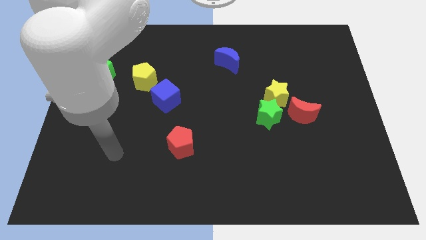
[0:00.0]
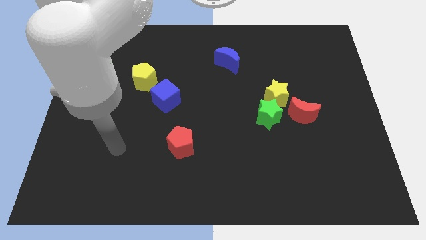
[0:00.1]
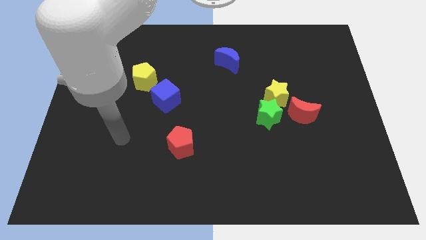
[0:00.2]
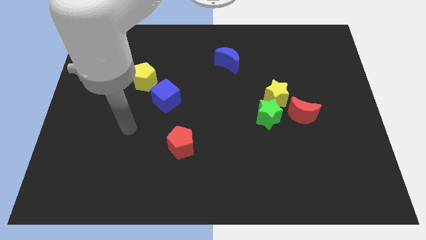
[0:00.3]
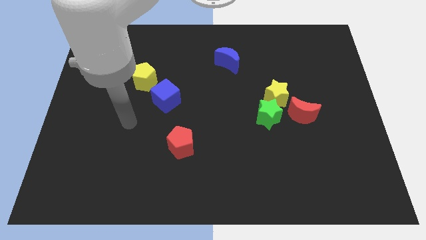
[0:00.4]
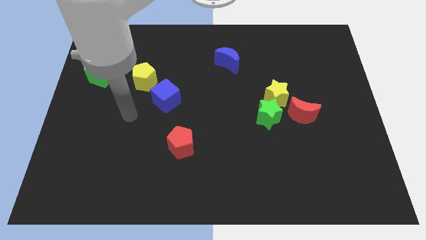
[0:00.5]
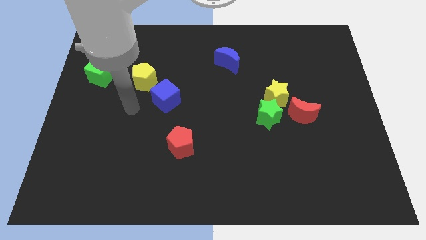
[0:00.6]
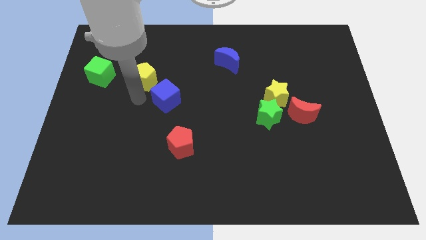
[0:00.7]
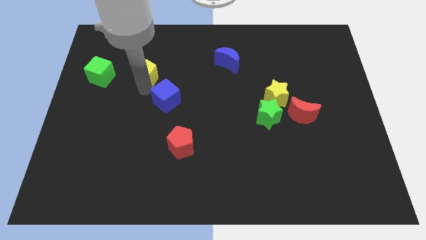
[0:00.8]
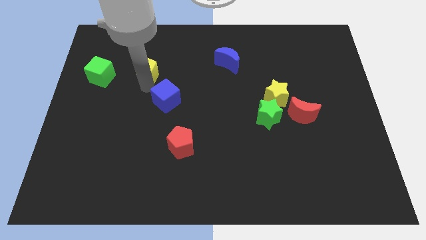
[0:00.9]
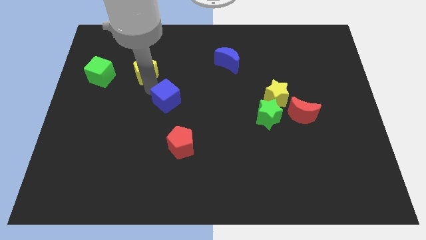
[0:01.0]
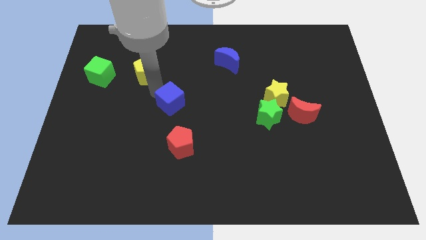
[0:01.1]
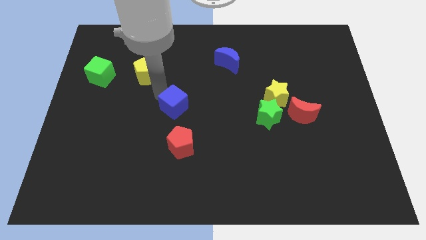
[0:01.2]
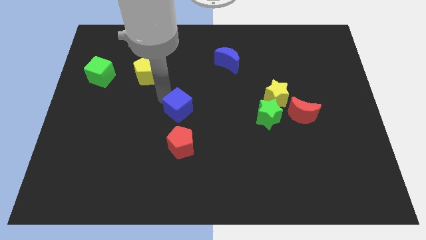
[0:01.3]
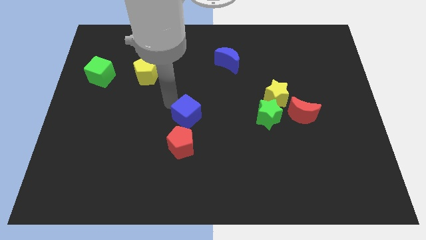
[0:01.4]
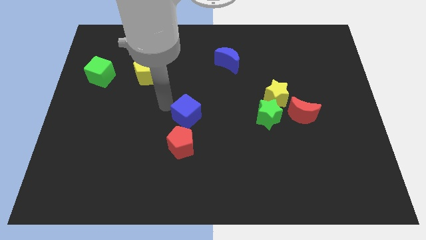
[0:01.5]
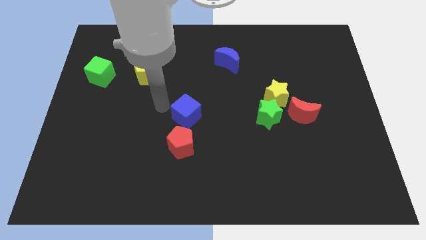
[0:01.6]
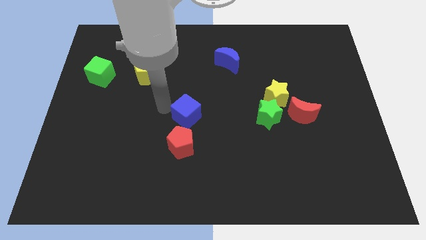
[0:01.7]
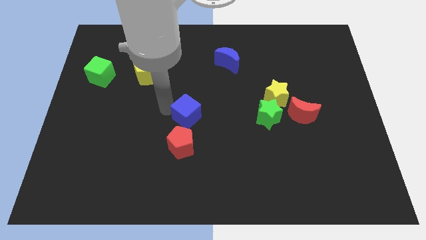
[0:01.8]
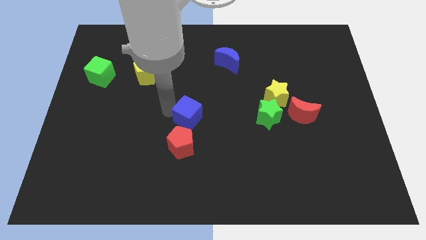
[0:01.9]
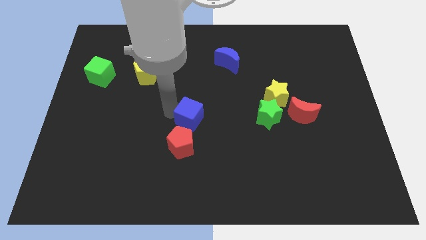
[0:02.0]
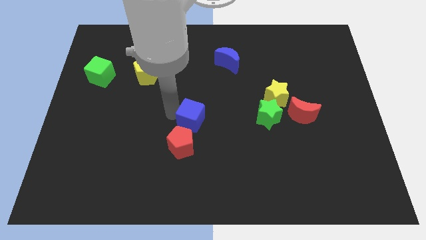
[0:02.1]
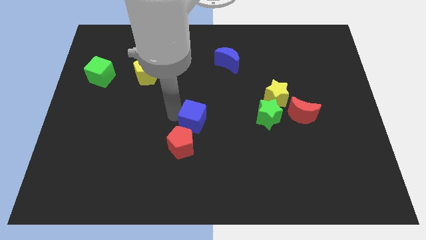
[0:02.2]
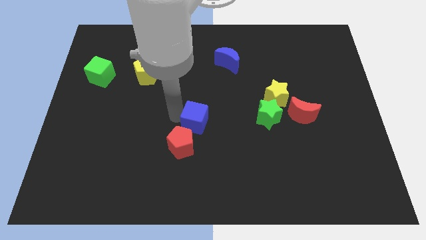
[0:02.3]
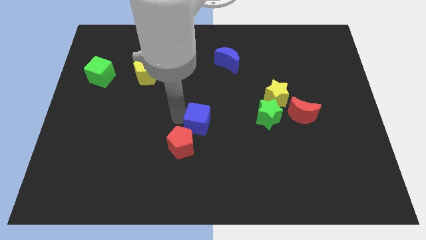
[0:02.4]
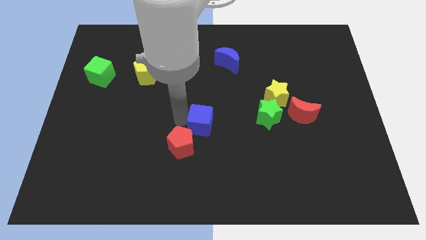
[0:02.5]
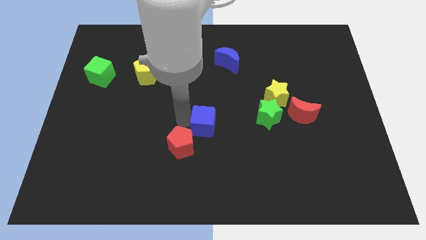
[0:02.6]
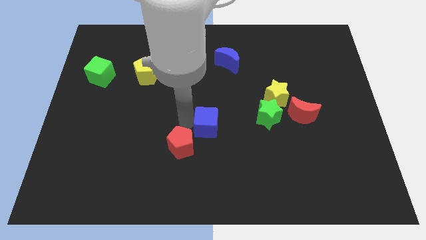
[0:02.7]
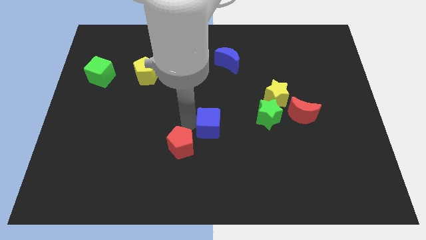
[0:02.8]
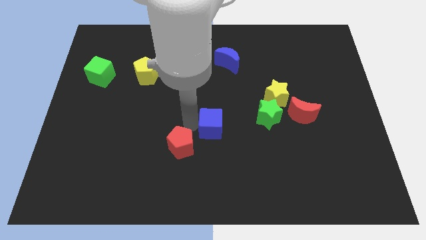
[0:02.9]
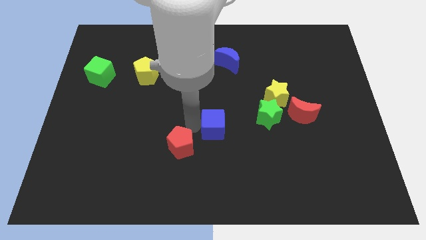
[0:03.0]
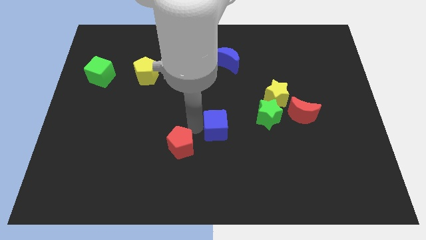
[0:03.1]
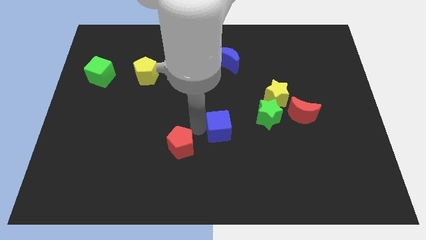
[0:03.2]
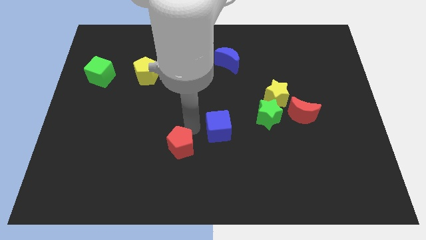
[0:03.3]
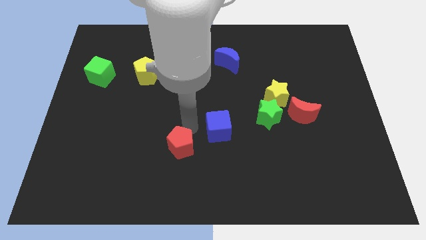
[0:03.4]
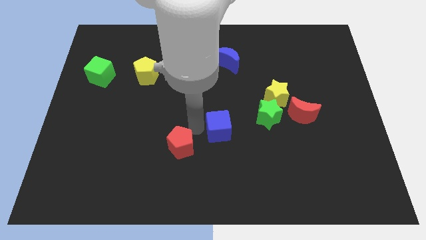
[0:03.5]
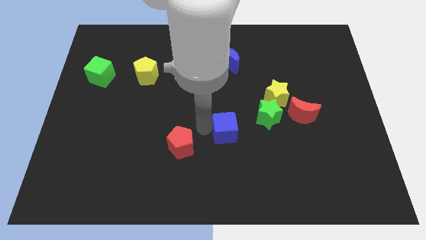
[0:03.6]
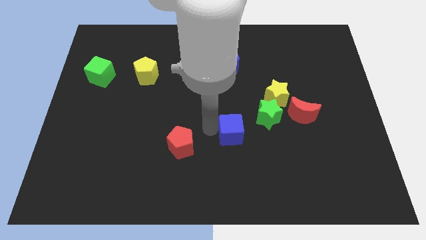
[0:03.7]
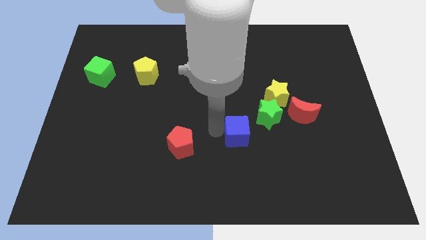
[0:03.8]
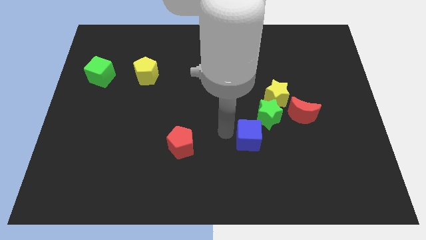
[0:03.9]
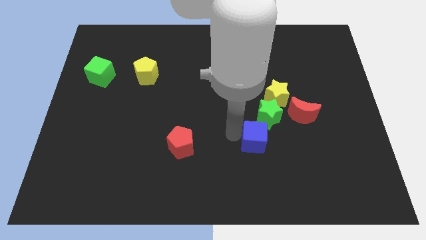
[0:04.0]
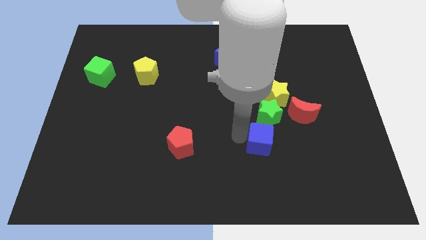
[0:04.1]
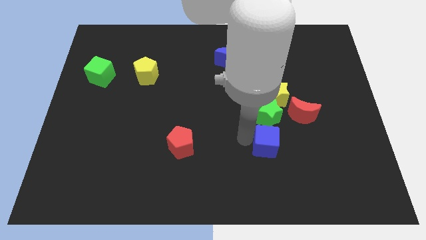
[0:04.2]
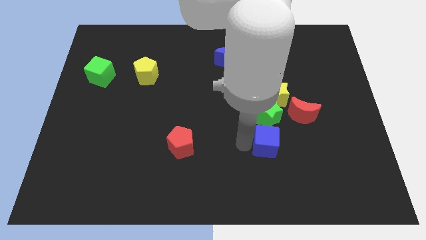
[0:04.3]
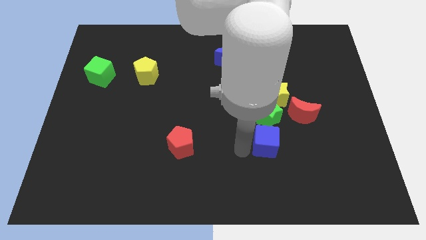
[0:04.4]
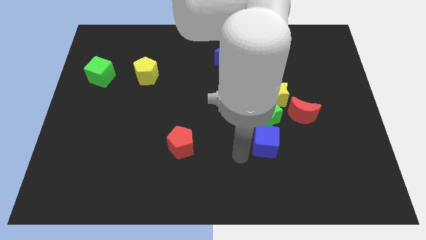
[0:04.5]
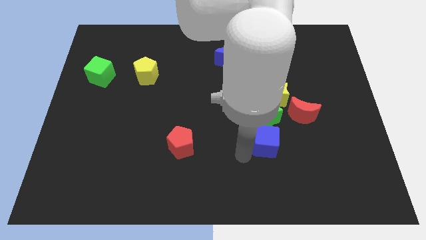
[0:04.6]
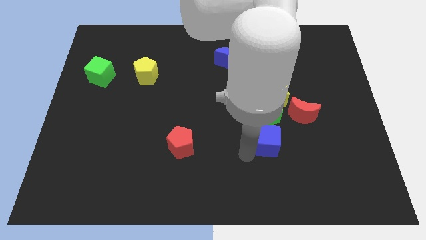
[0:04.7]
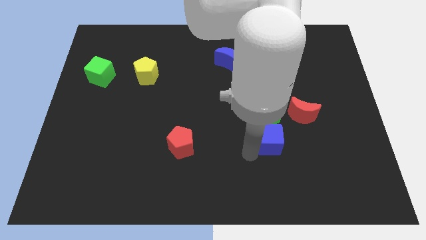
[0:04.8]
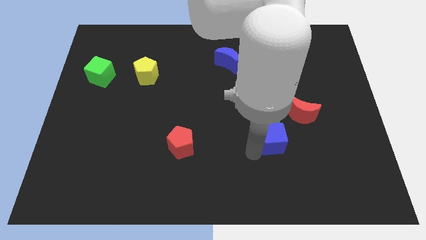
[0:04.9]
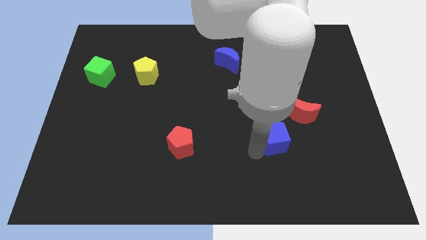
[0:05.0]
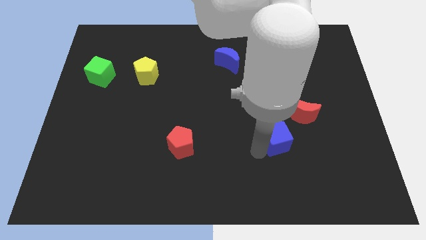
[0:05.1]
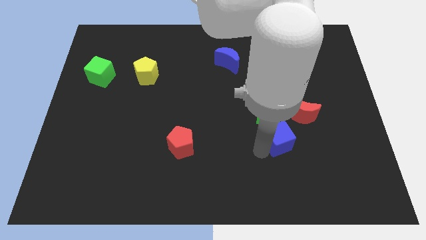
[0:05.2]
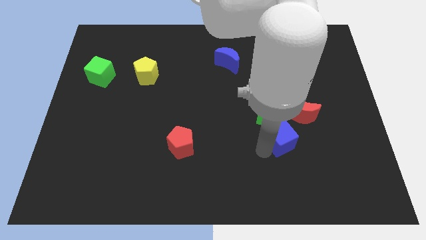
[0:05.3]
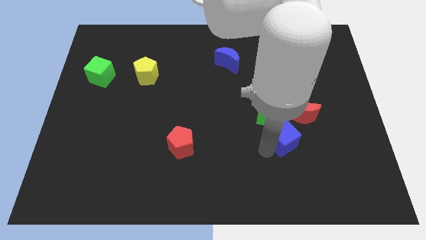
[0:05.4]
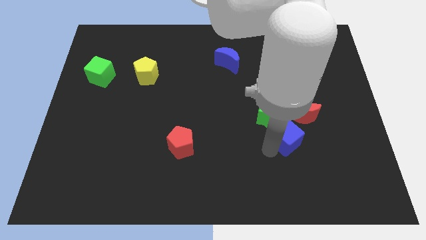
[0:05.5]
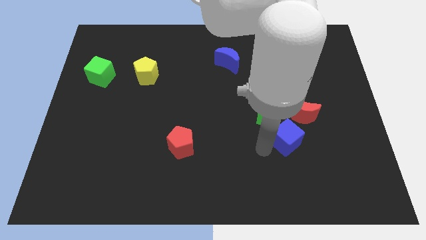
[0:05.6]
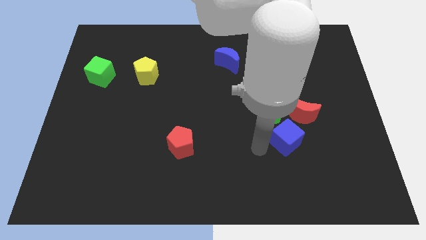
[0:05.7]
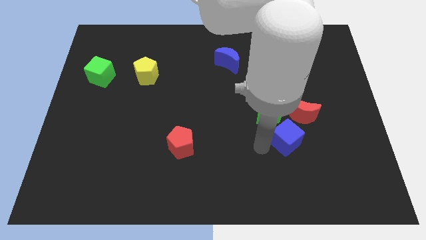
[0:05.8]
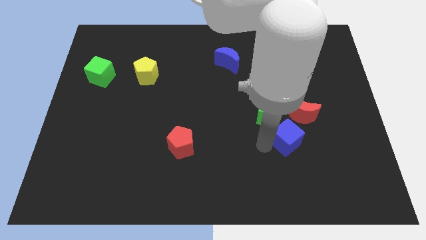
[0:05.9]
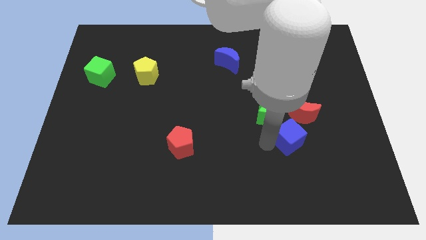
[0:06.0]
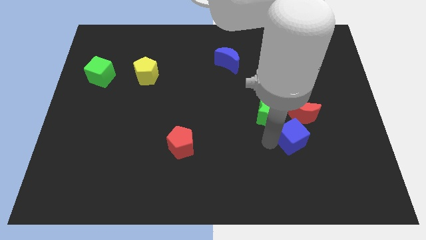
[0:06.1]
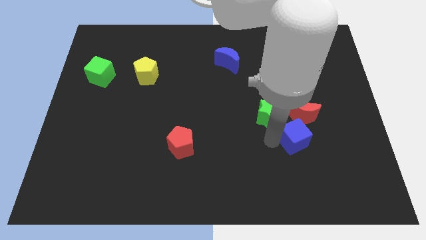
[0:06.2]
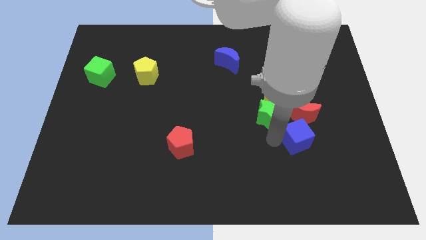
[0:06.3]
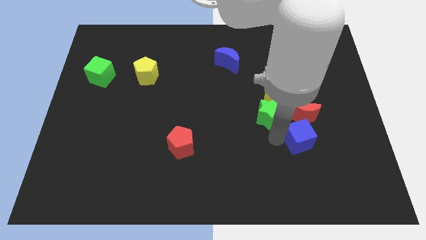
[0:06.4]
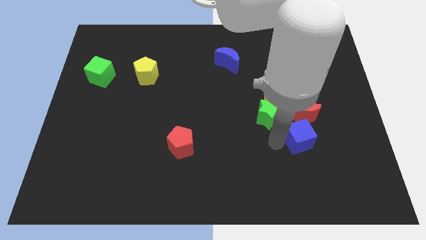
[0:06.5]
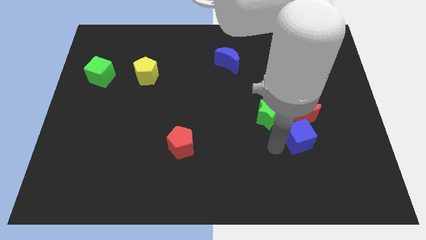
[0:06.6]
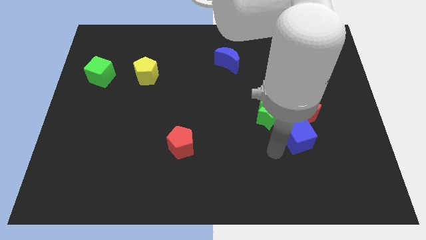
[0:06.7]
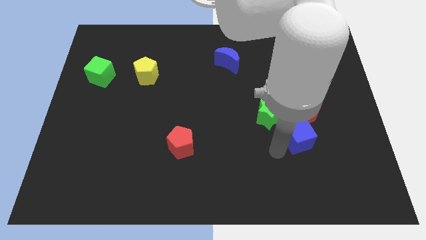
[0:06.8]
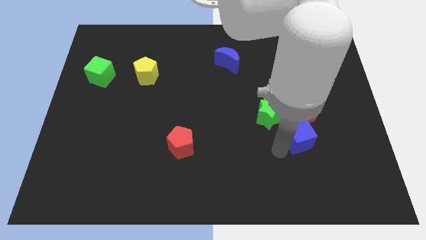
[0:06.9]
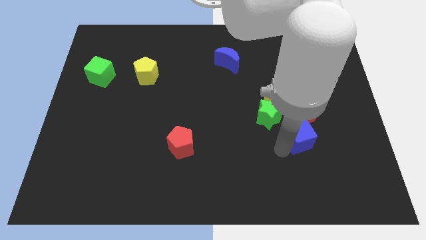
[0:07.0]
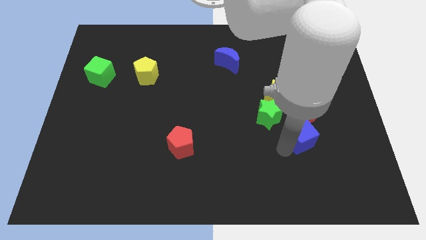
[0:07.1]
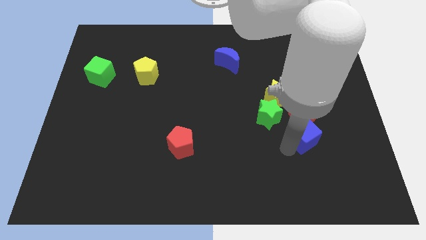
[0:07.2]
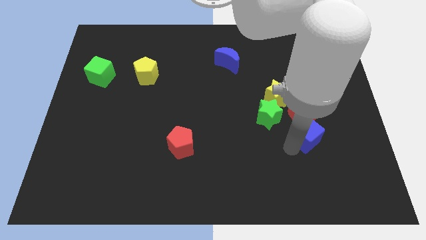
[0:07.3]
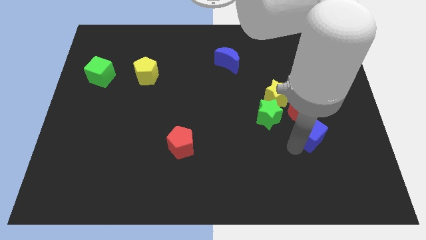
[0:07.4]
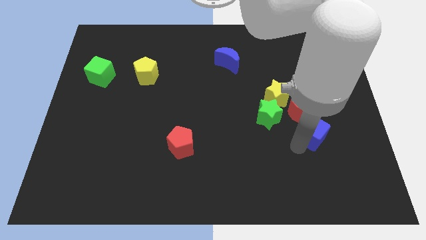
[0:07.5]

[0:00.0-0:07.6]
push the blue cube right of the green star
